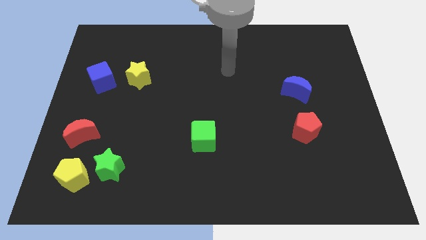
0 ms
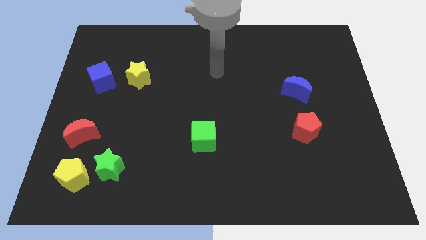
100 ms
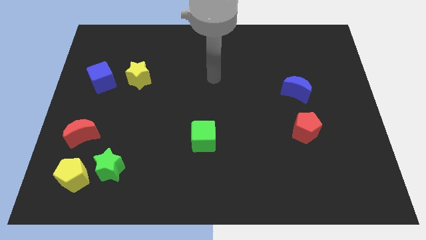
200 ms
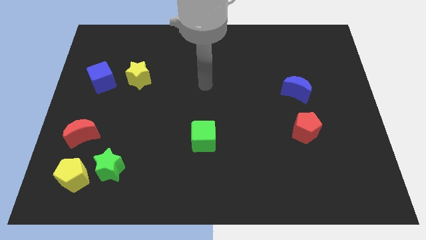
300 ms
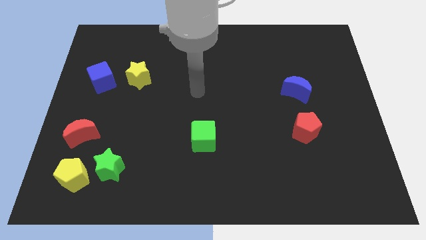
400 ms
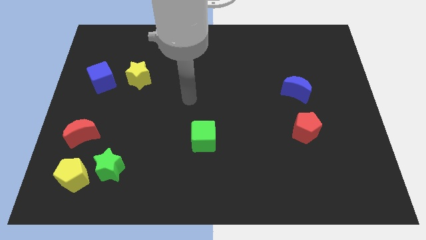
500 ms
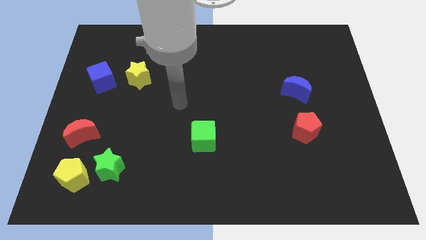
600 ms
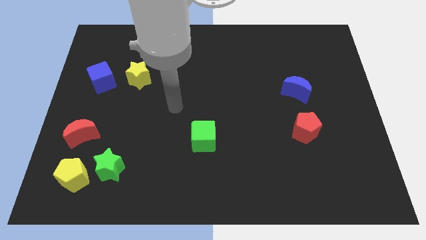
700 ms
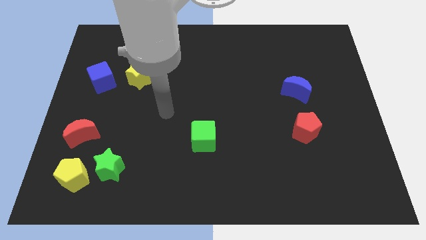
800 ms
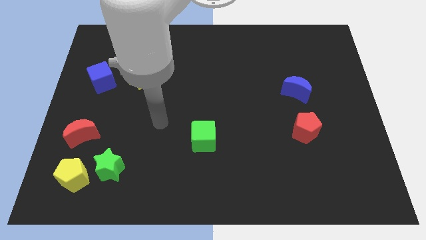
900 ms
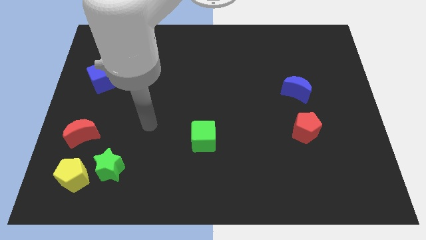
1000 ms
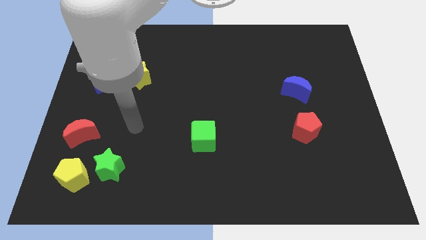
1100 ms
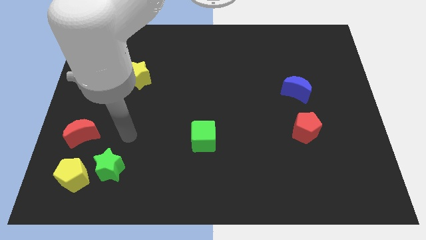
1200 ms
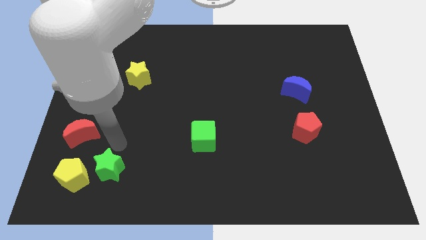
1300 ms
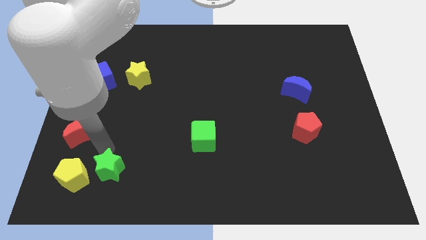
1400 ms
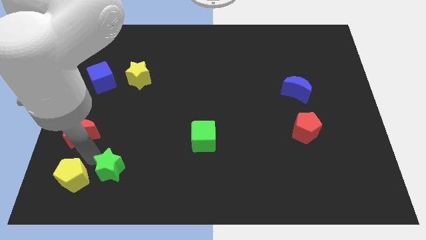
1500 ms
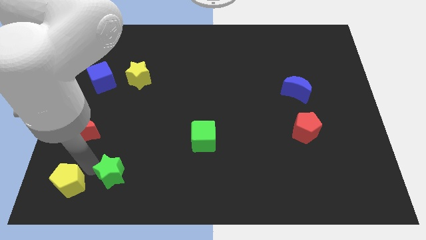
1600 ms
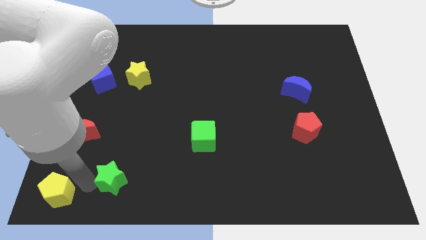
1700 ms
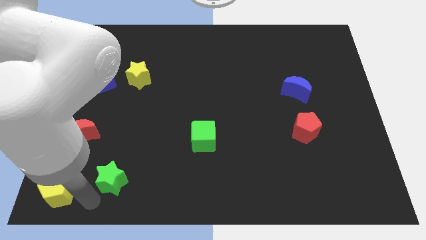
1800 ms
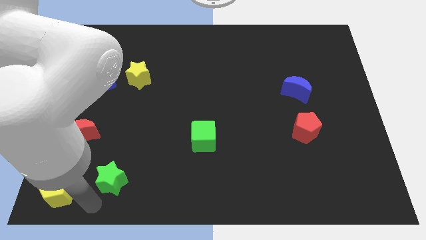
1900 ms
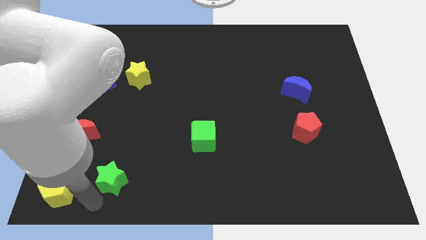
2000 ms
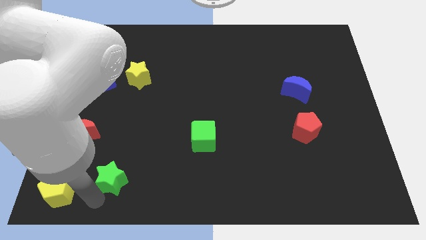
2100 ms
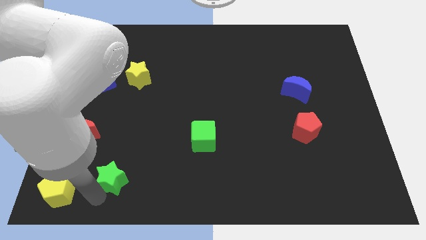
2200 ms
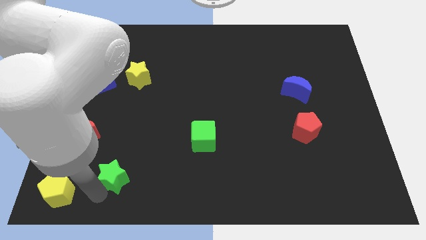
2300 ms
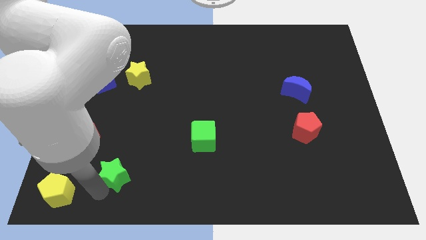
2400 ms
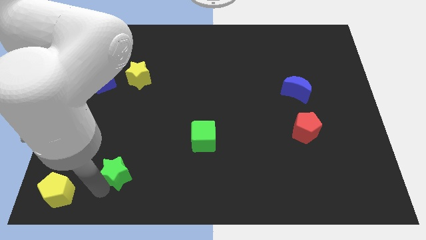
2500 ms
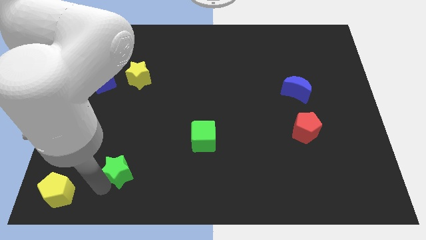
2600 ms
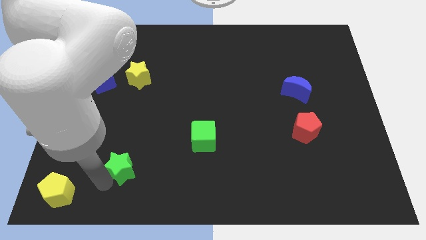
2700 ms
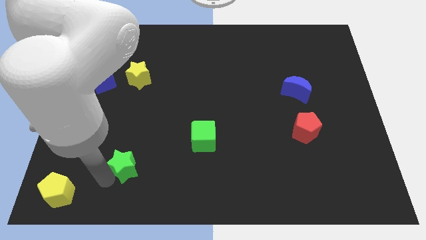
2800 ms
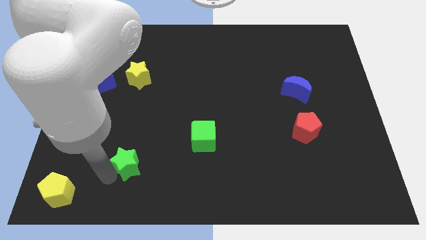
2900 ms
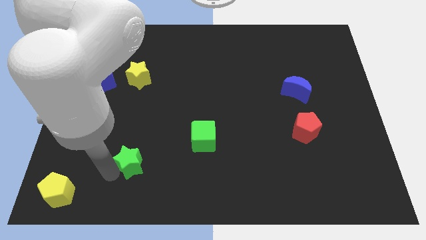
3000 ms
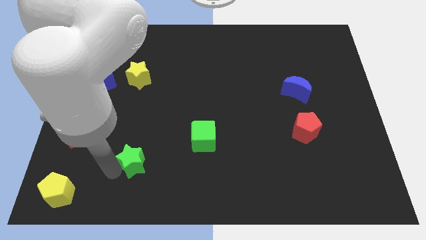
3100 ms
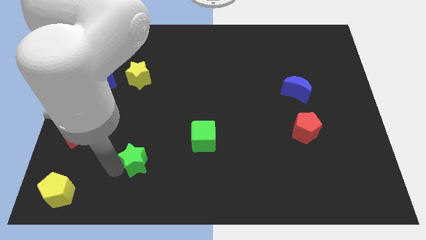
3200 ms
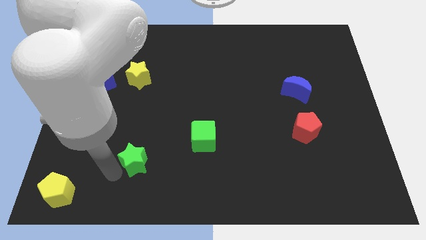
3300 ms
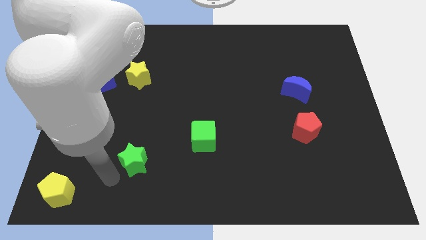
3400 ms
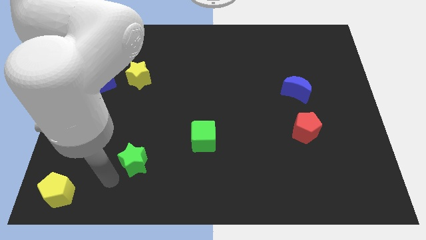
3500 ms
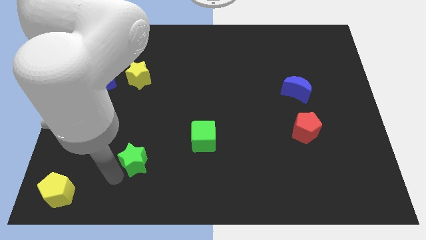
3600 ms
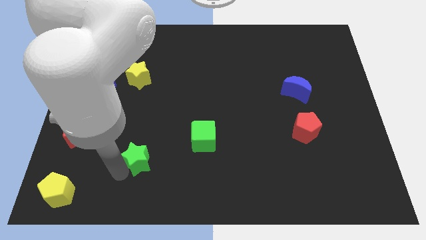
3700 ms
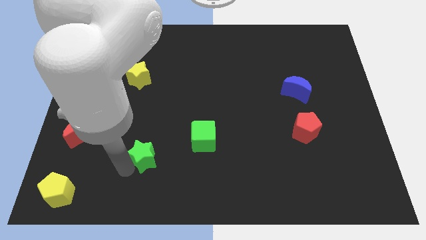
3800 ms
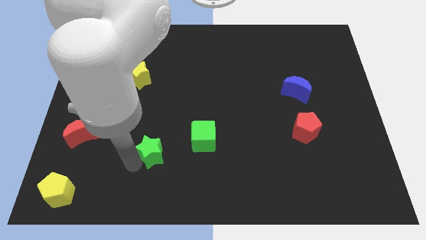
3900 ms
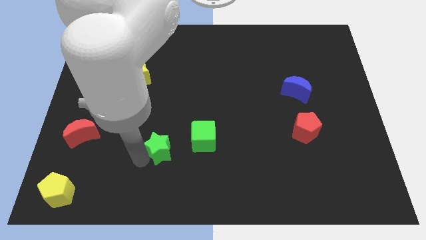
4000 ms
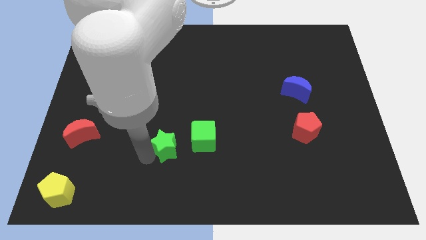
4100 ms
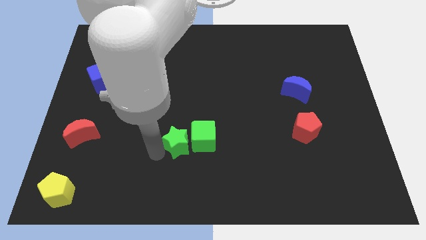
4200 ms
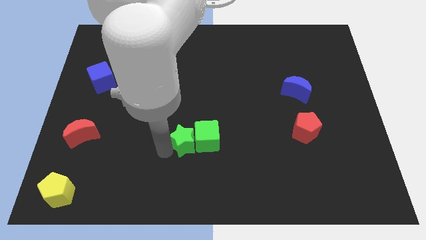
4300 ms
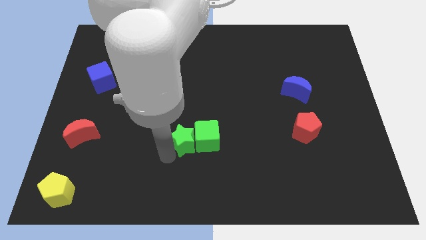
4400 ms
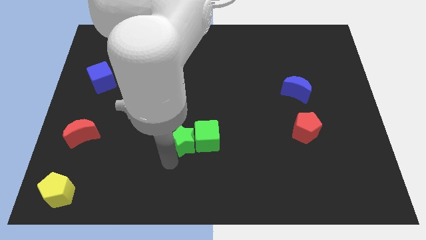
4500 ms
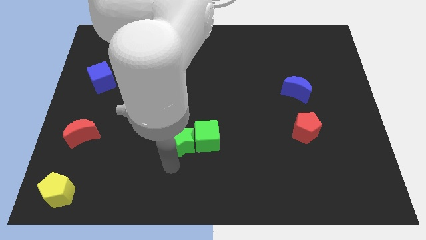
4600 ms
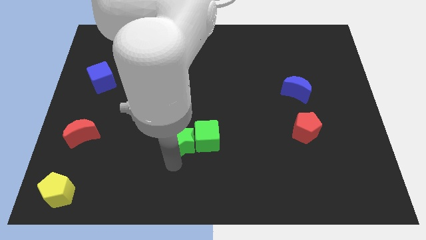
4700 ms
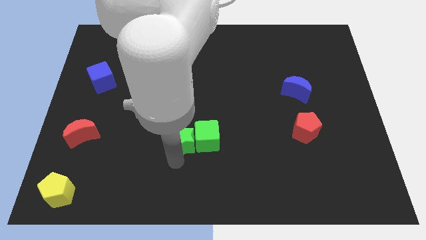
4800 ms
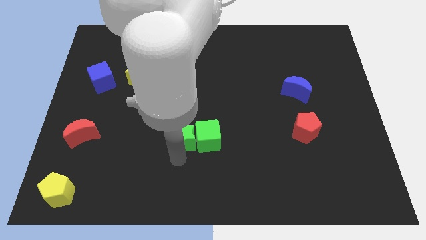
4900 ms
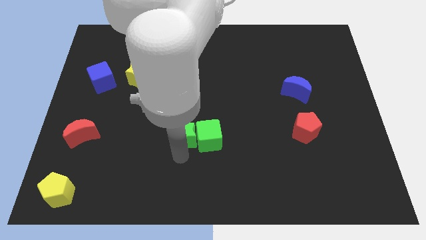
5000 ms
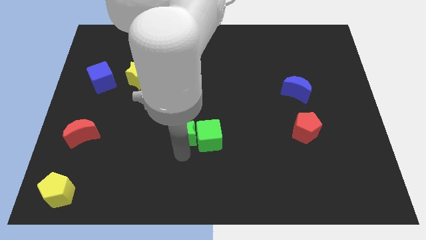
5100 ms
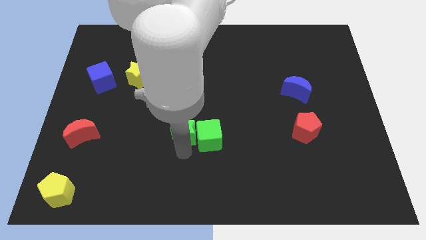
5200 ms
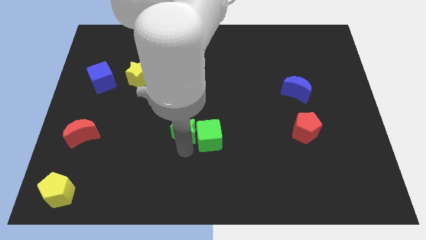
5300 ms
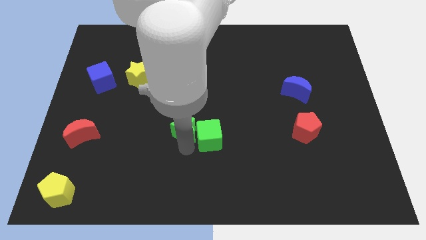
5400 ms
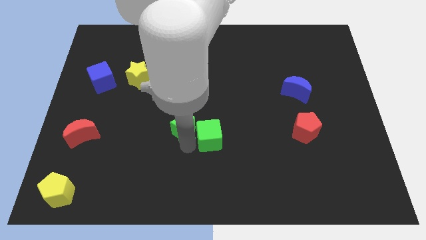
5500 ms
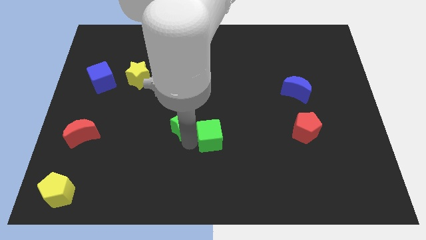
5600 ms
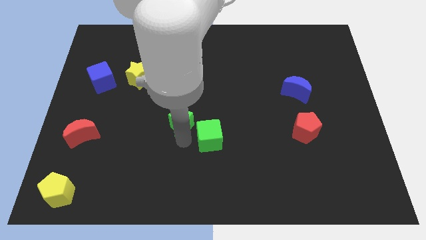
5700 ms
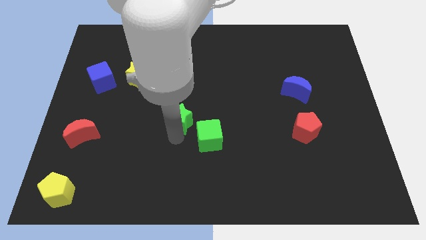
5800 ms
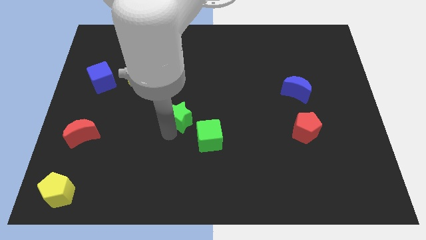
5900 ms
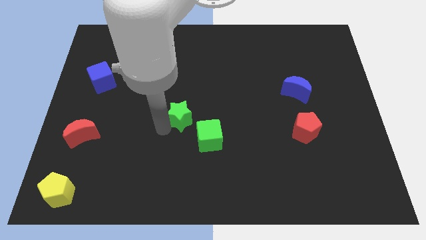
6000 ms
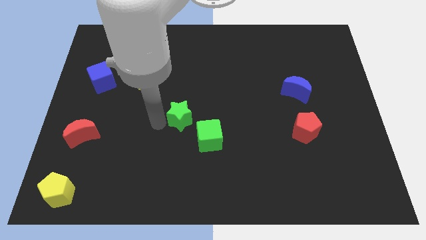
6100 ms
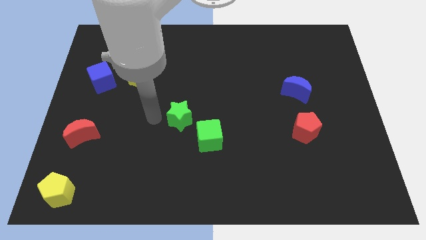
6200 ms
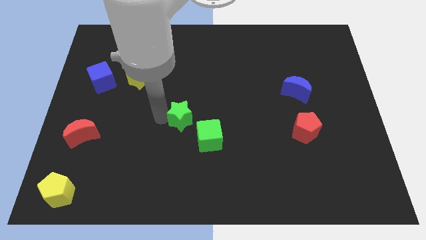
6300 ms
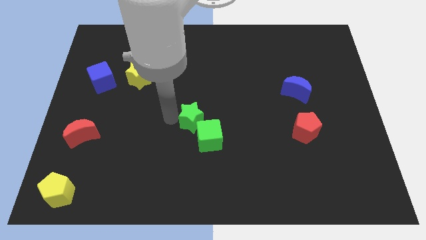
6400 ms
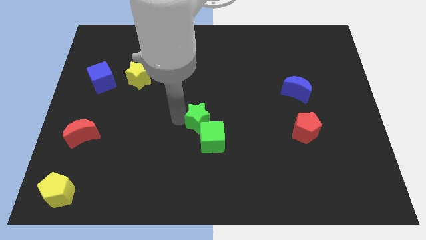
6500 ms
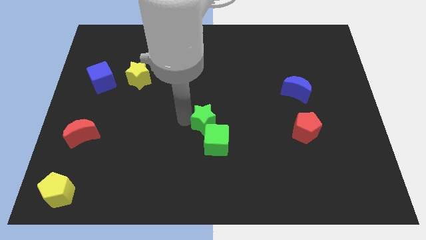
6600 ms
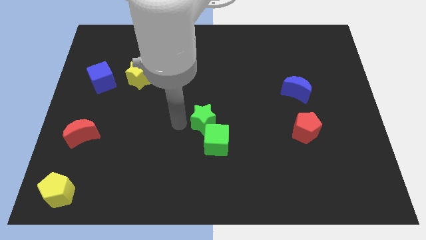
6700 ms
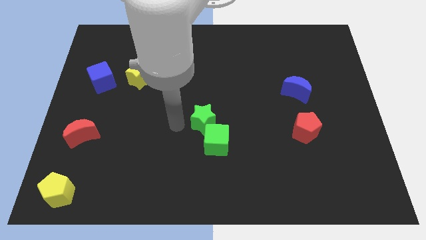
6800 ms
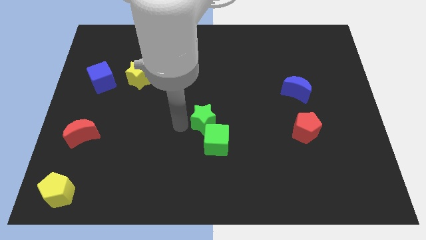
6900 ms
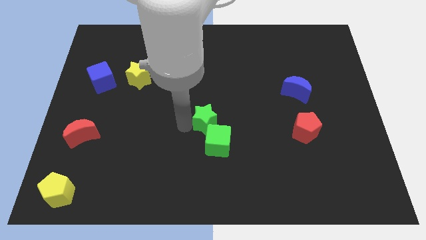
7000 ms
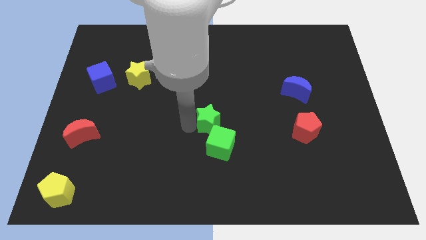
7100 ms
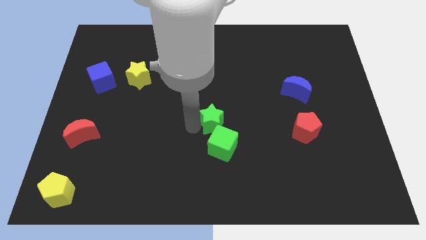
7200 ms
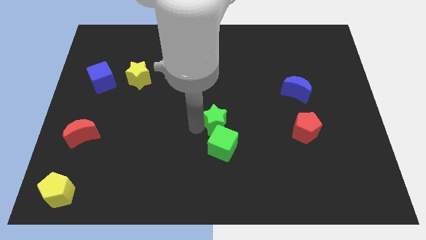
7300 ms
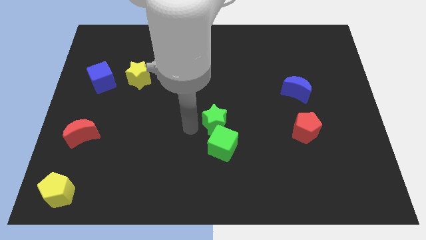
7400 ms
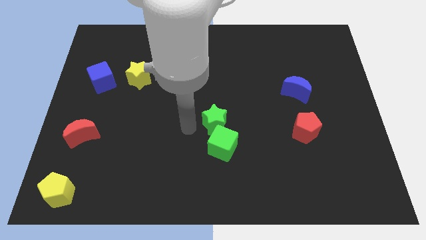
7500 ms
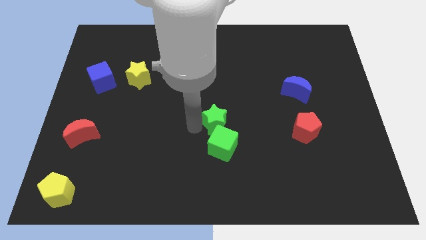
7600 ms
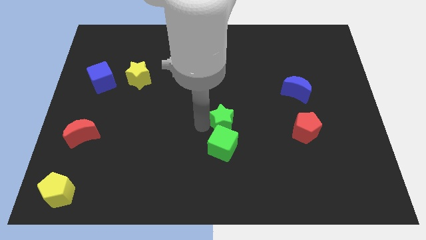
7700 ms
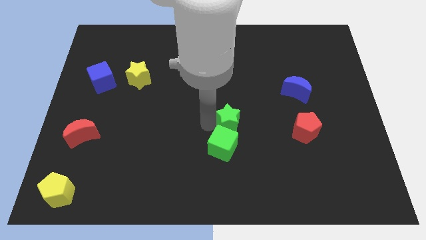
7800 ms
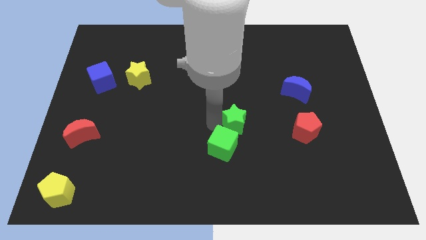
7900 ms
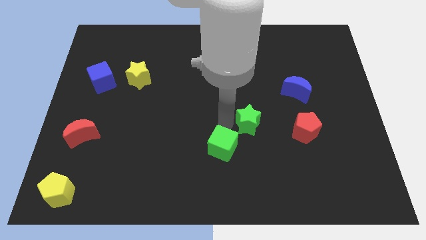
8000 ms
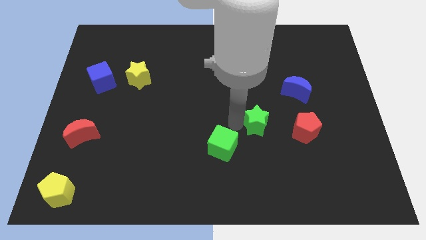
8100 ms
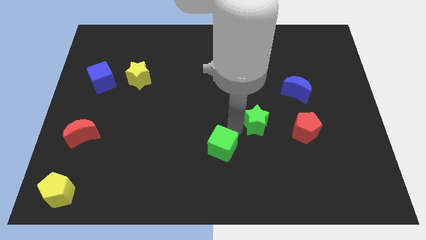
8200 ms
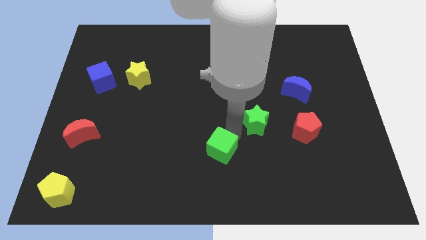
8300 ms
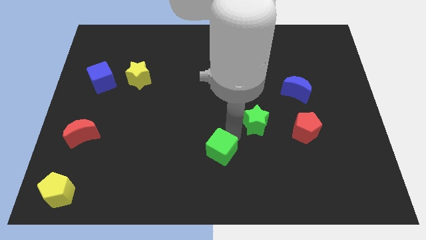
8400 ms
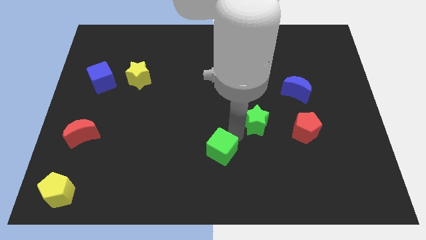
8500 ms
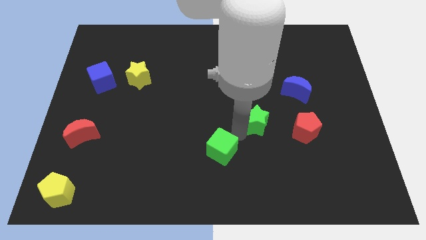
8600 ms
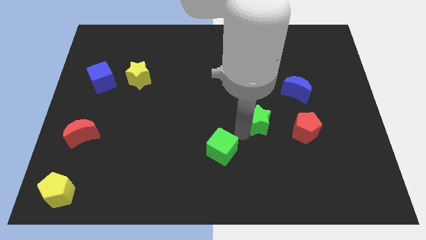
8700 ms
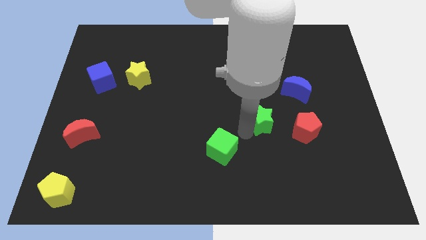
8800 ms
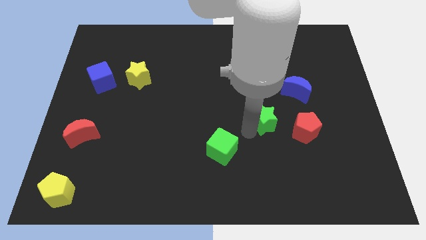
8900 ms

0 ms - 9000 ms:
put the green star to the top left of the red pentagon
